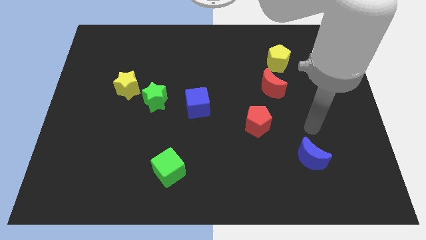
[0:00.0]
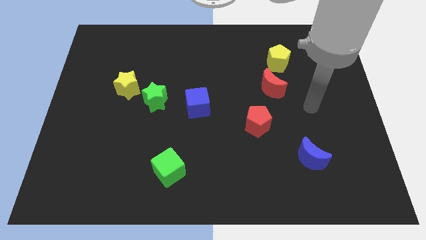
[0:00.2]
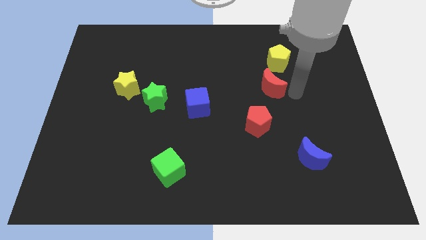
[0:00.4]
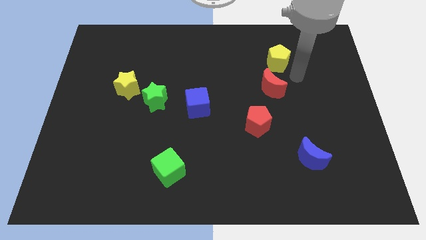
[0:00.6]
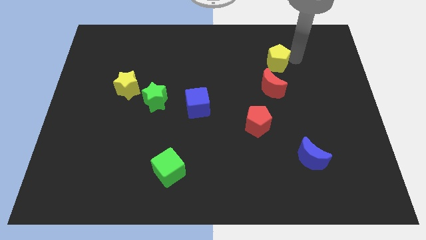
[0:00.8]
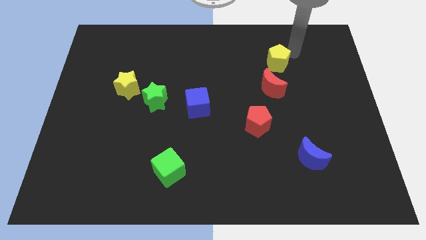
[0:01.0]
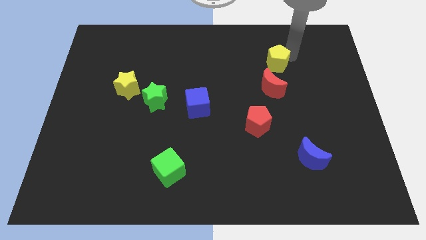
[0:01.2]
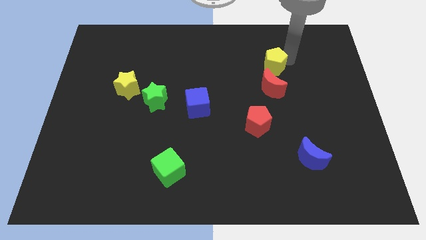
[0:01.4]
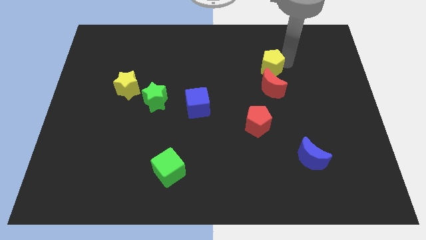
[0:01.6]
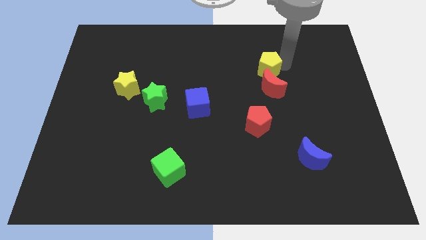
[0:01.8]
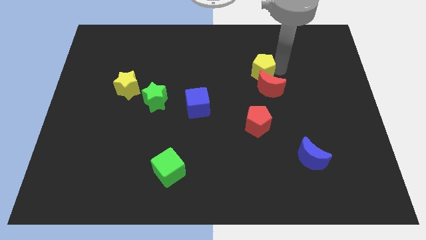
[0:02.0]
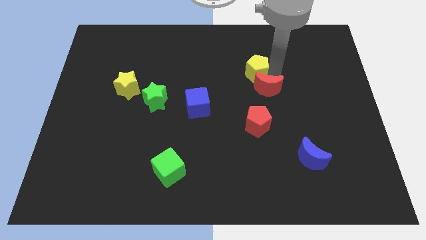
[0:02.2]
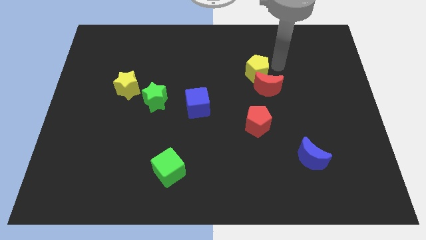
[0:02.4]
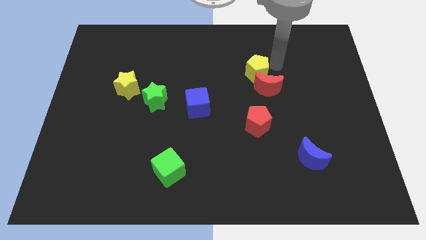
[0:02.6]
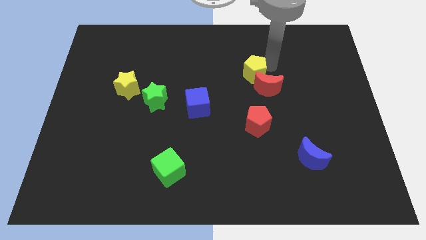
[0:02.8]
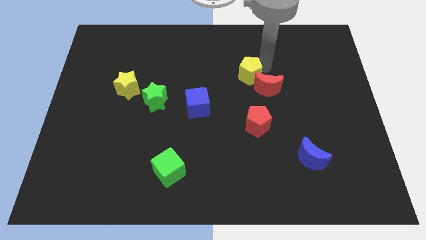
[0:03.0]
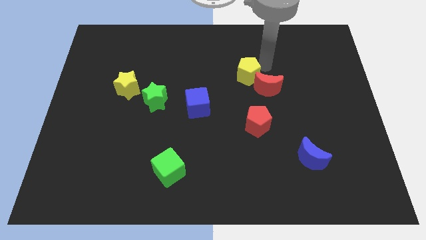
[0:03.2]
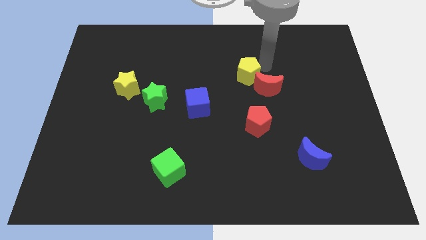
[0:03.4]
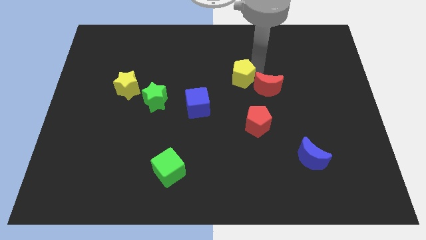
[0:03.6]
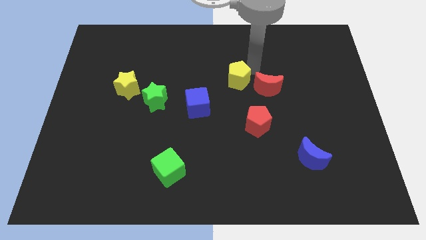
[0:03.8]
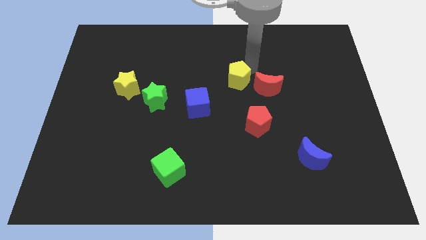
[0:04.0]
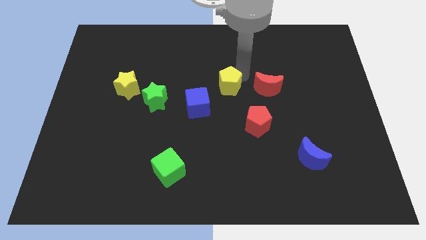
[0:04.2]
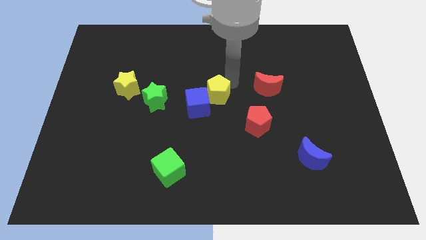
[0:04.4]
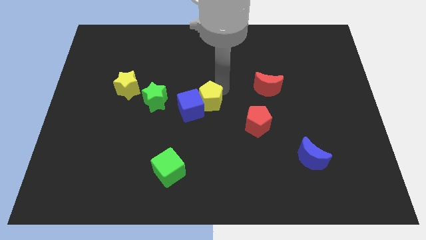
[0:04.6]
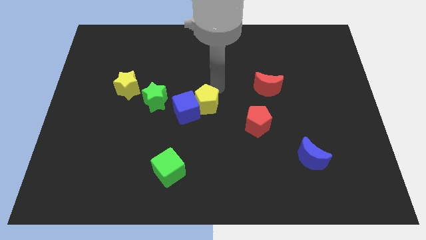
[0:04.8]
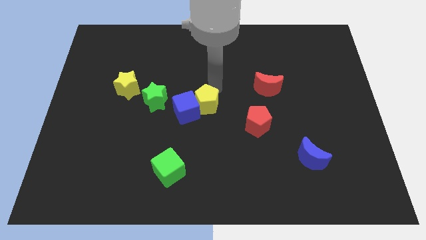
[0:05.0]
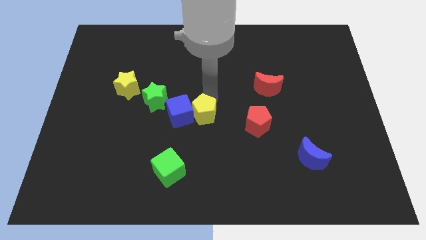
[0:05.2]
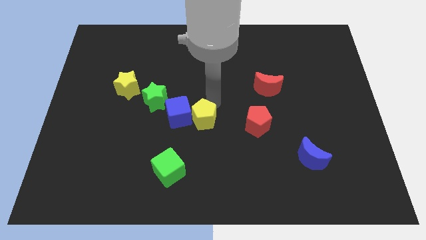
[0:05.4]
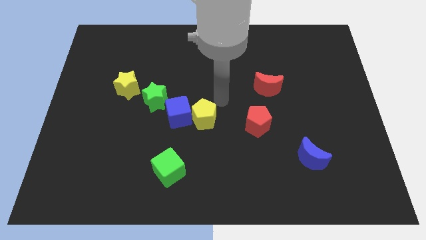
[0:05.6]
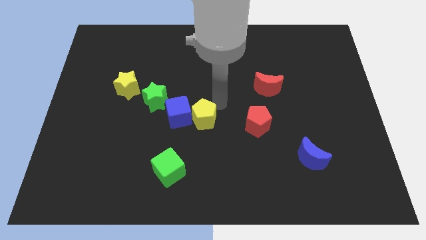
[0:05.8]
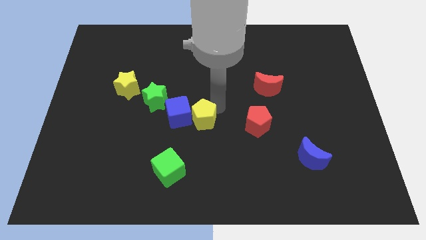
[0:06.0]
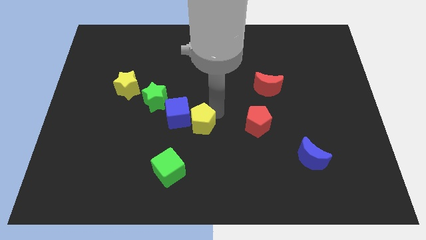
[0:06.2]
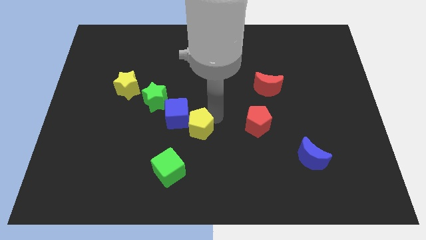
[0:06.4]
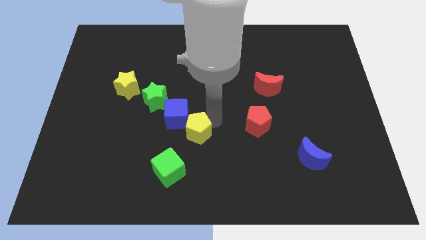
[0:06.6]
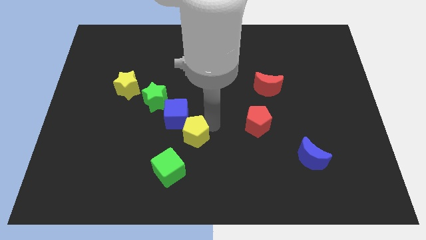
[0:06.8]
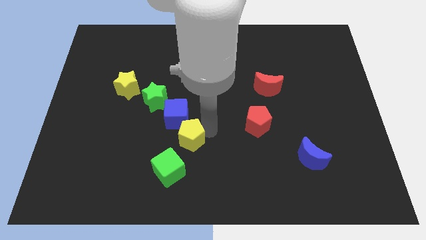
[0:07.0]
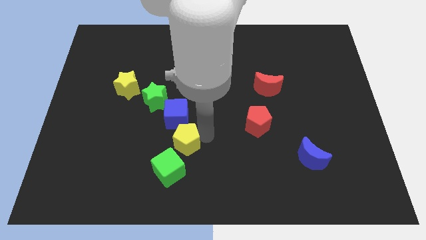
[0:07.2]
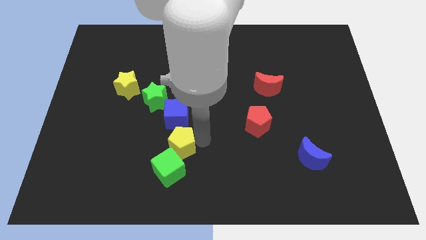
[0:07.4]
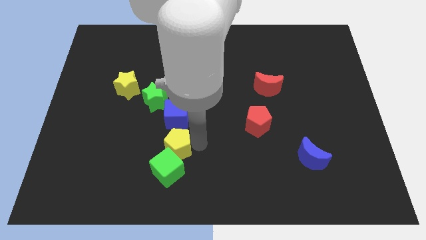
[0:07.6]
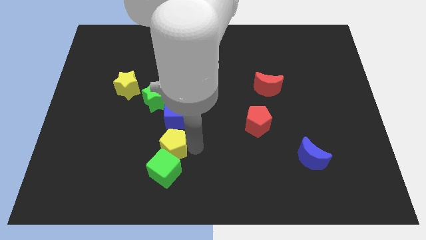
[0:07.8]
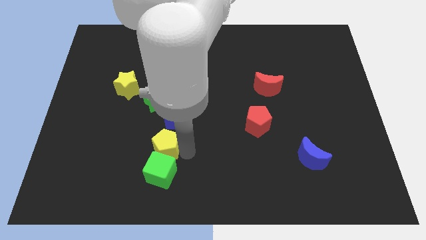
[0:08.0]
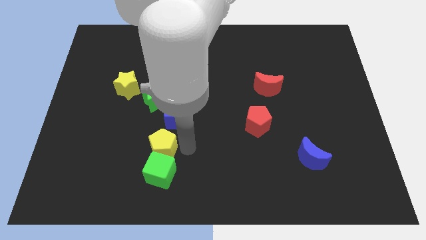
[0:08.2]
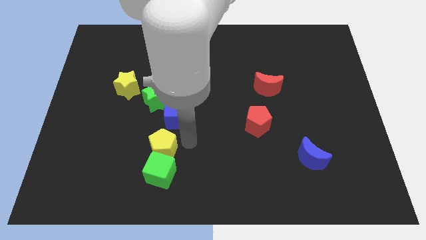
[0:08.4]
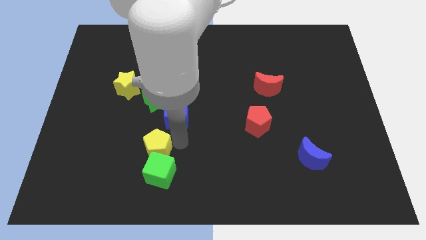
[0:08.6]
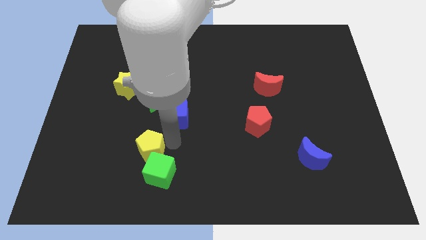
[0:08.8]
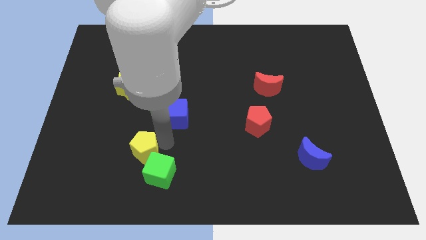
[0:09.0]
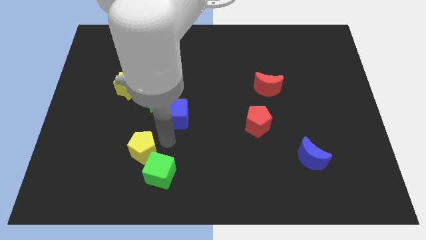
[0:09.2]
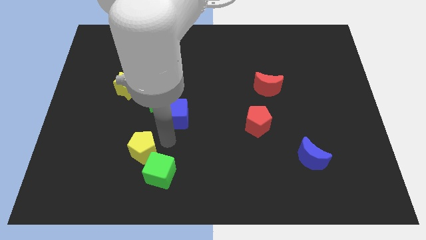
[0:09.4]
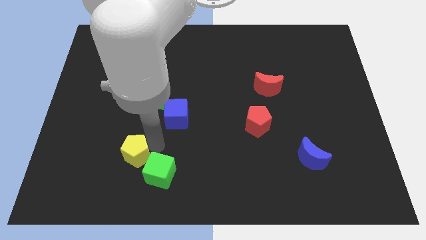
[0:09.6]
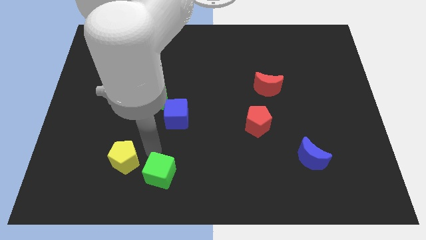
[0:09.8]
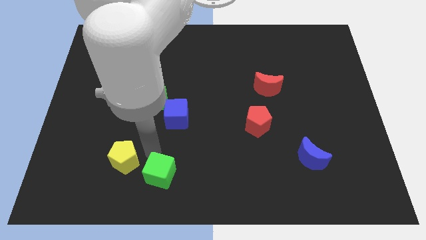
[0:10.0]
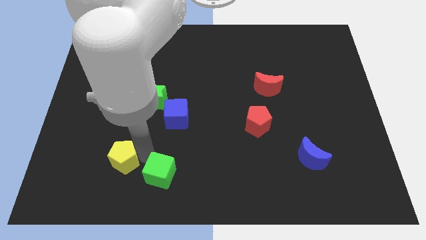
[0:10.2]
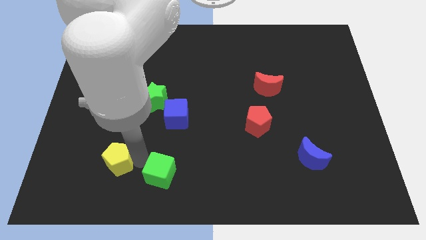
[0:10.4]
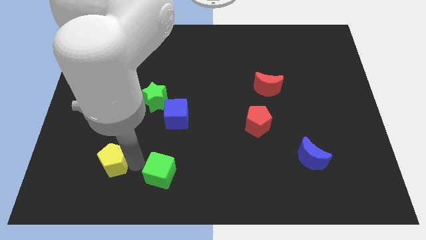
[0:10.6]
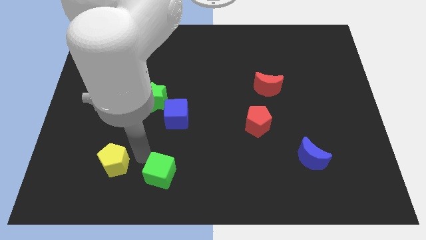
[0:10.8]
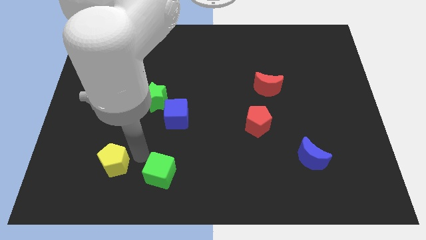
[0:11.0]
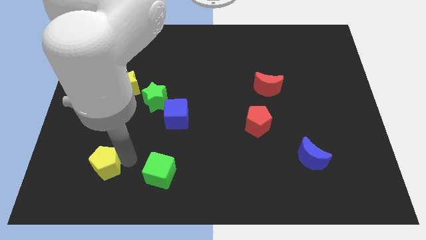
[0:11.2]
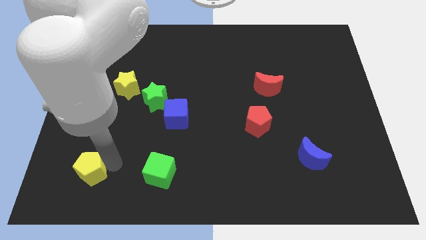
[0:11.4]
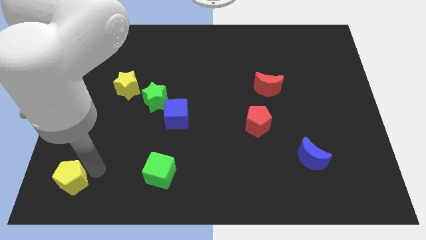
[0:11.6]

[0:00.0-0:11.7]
slide the yellow pentagon to the lower left corner

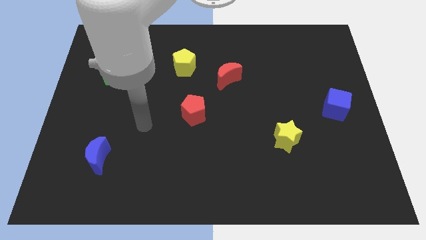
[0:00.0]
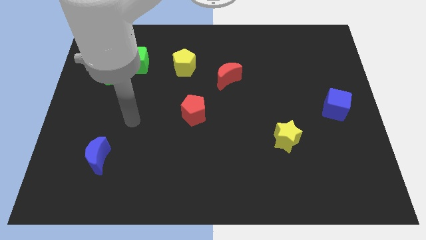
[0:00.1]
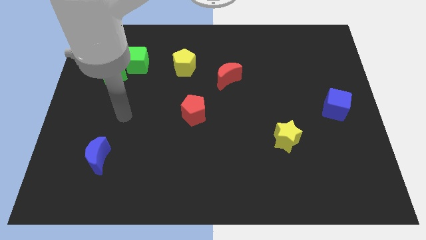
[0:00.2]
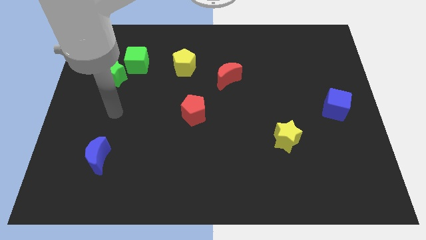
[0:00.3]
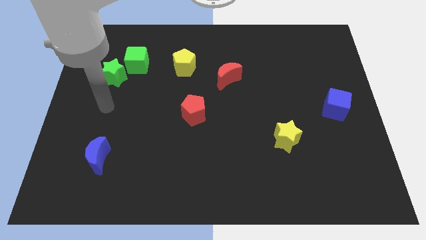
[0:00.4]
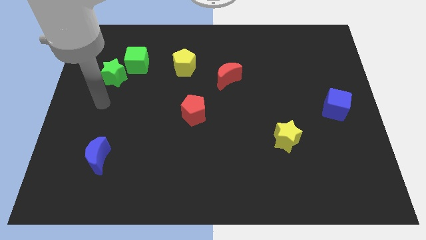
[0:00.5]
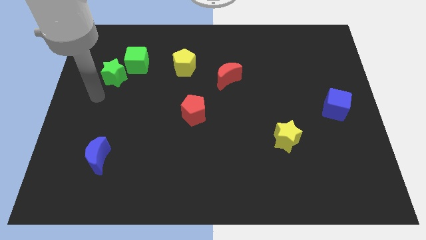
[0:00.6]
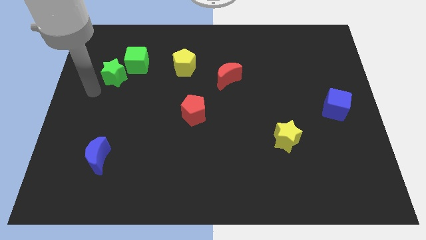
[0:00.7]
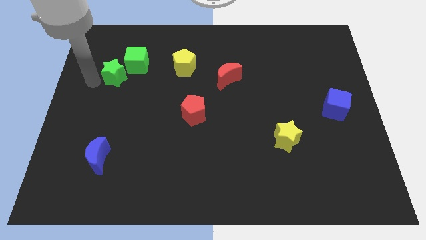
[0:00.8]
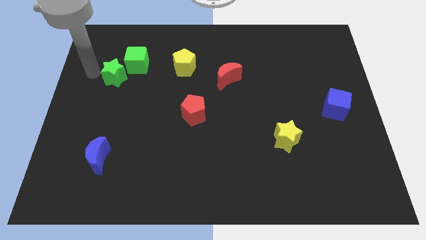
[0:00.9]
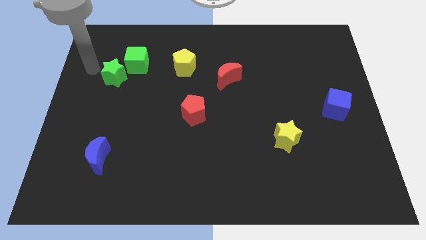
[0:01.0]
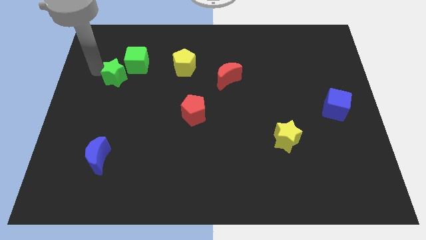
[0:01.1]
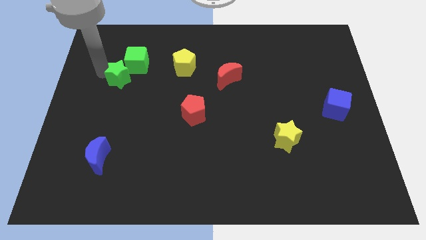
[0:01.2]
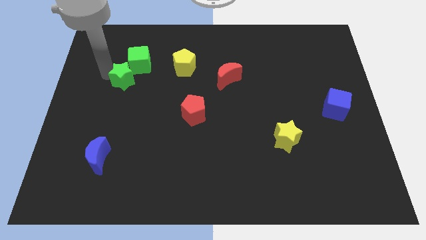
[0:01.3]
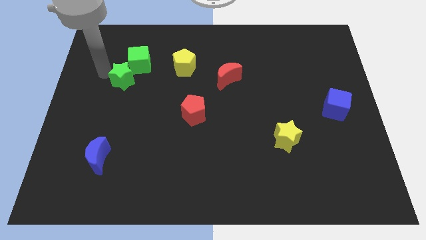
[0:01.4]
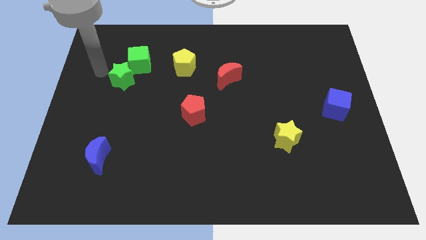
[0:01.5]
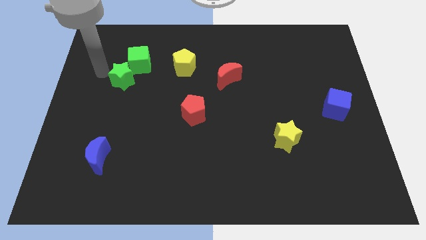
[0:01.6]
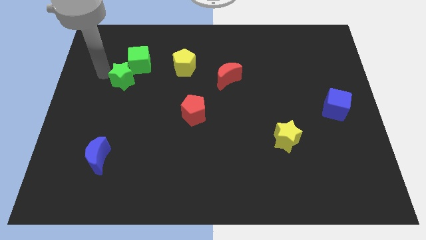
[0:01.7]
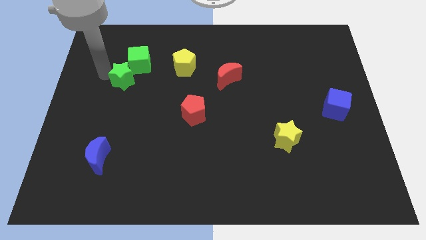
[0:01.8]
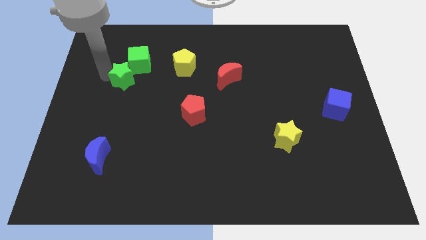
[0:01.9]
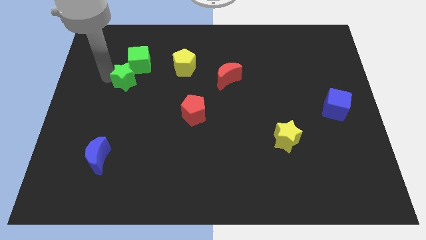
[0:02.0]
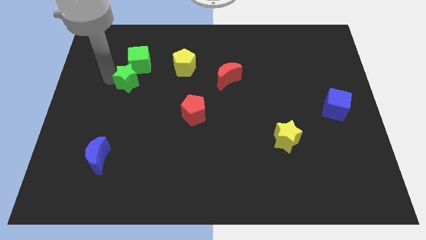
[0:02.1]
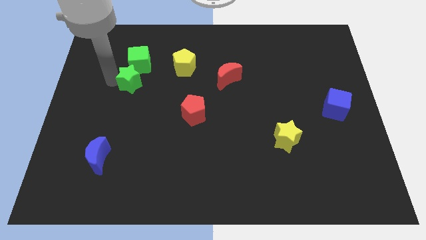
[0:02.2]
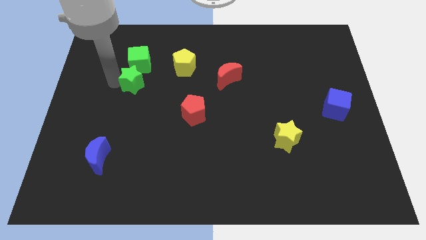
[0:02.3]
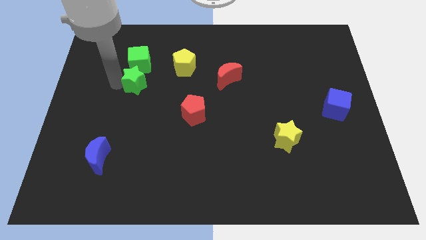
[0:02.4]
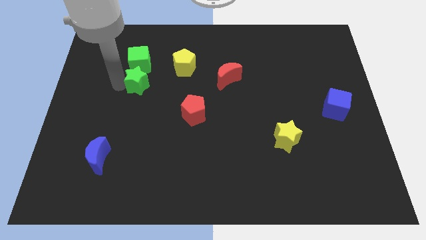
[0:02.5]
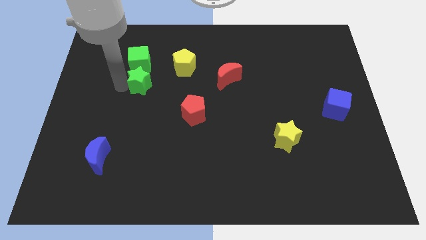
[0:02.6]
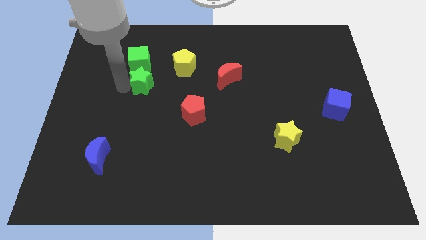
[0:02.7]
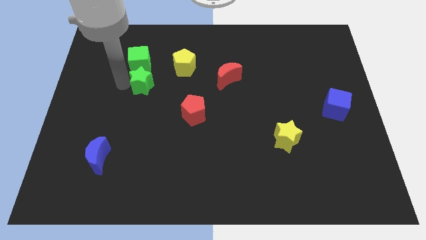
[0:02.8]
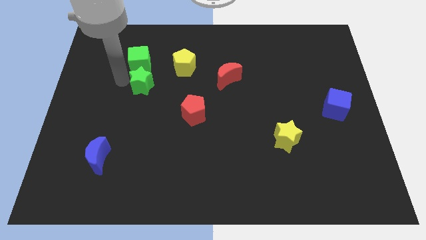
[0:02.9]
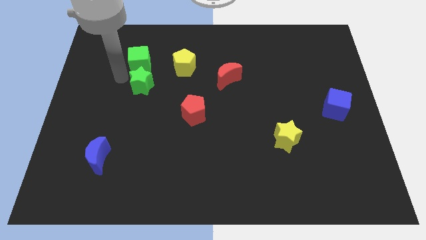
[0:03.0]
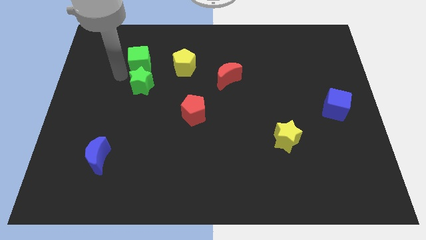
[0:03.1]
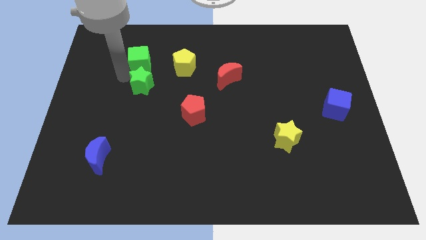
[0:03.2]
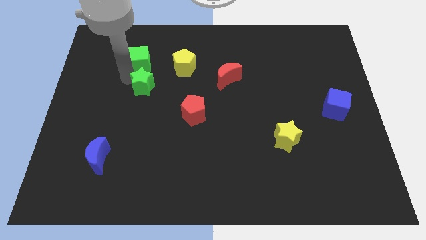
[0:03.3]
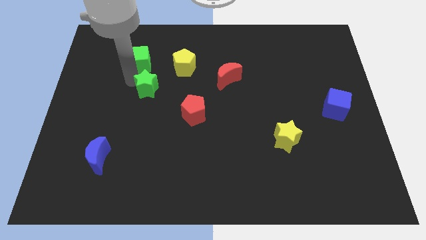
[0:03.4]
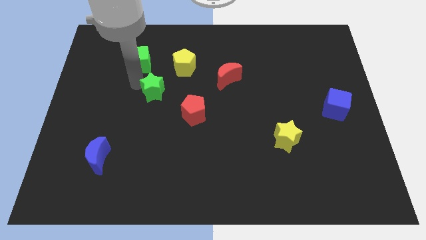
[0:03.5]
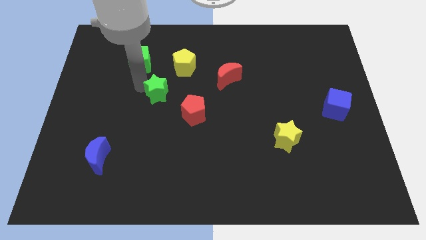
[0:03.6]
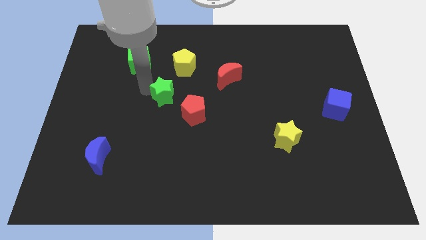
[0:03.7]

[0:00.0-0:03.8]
push the green star to the middle of the board
